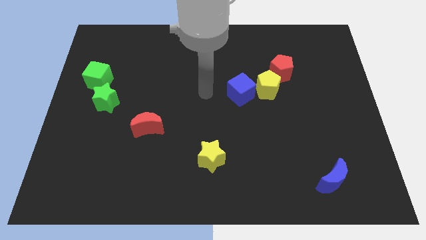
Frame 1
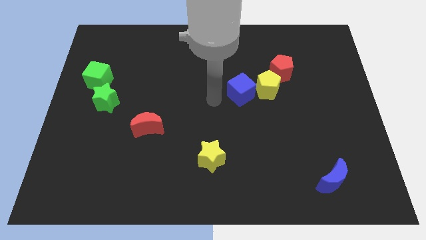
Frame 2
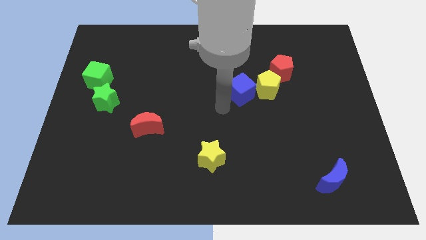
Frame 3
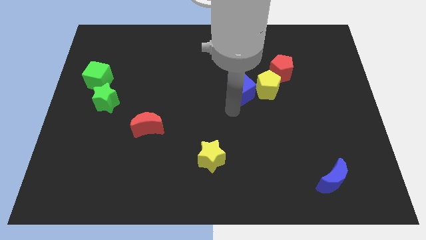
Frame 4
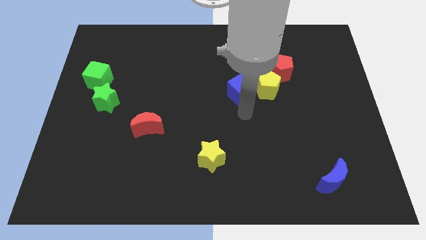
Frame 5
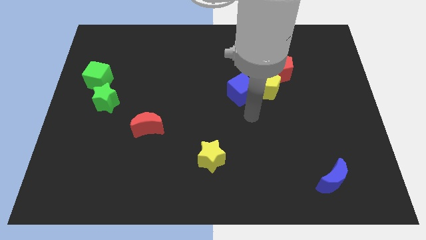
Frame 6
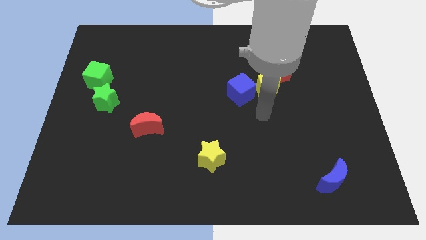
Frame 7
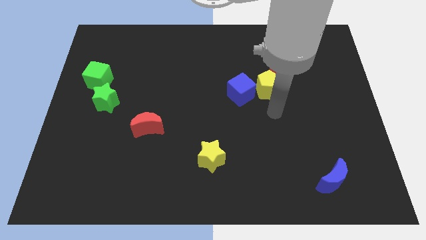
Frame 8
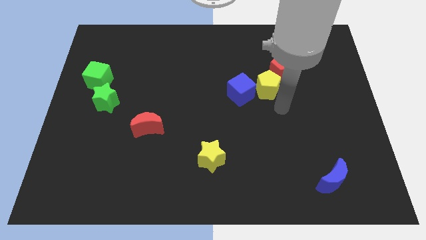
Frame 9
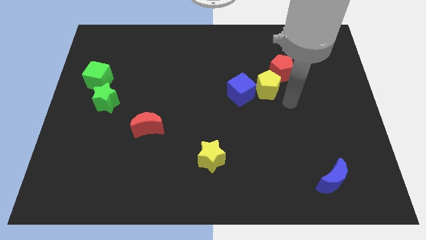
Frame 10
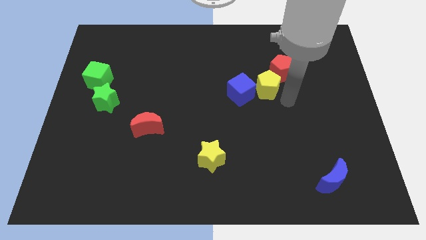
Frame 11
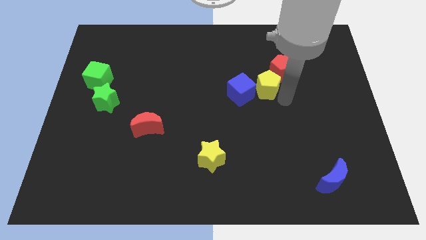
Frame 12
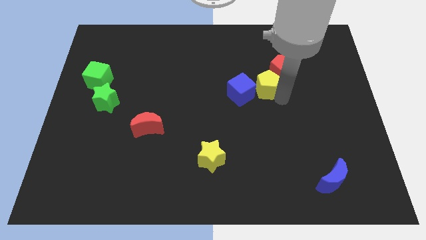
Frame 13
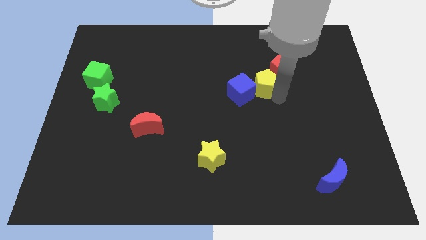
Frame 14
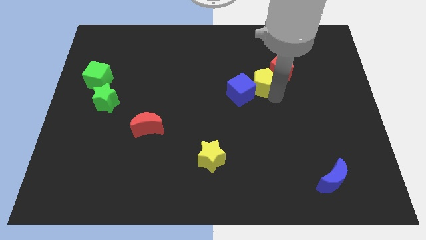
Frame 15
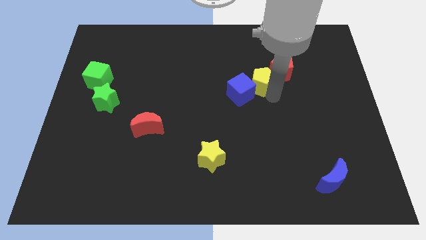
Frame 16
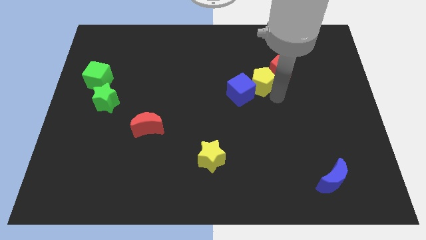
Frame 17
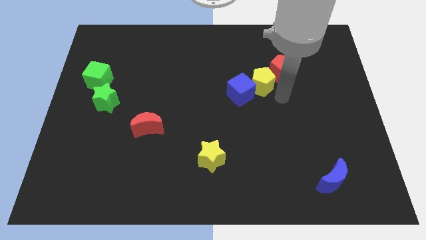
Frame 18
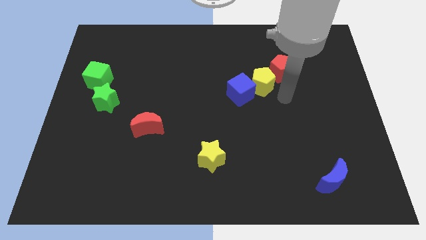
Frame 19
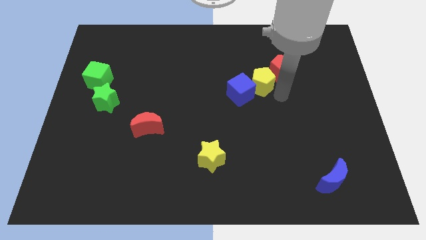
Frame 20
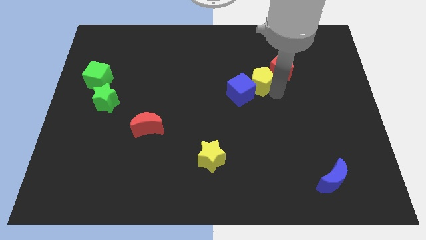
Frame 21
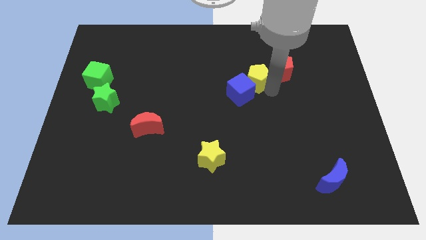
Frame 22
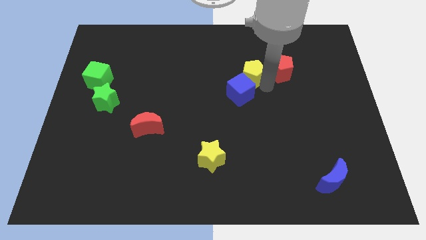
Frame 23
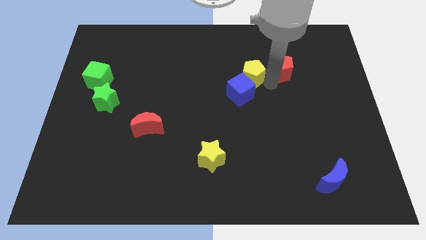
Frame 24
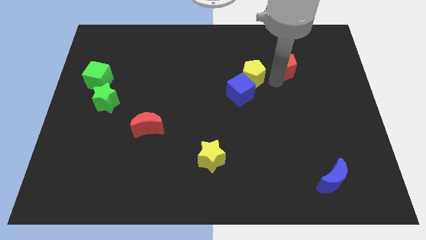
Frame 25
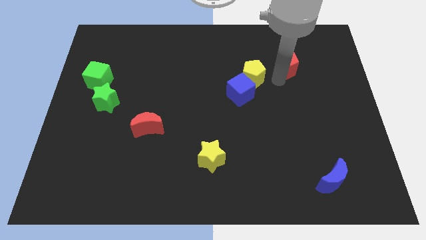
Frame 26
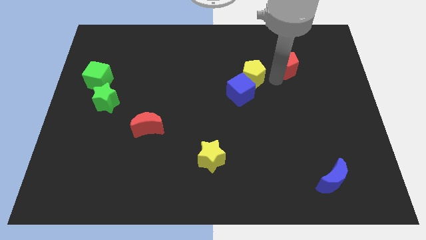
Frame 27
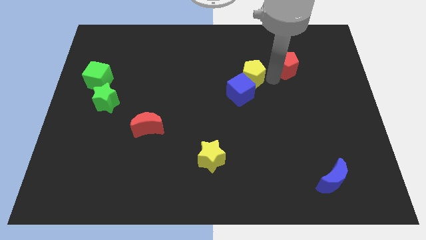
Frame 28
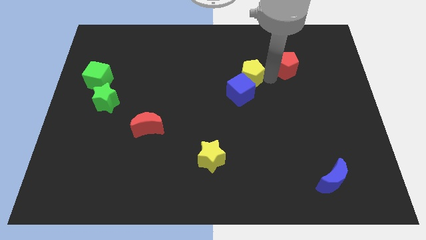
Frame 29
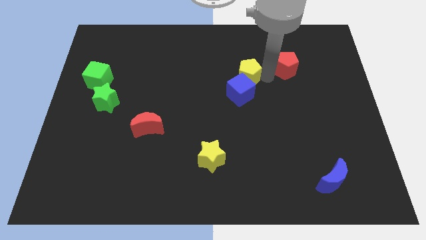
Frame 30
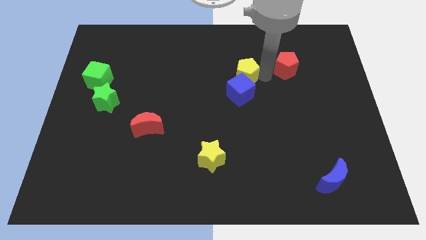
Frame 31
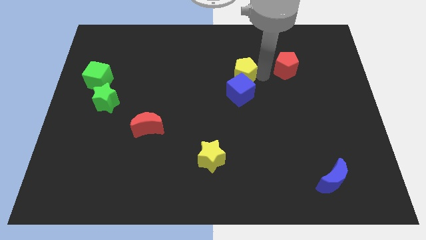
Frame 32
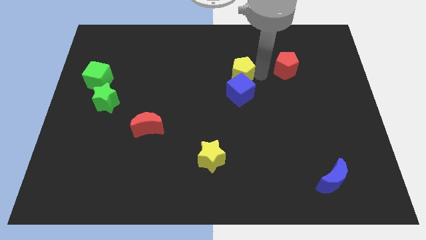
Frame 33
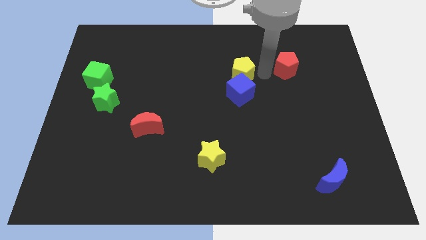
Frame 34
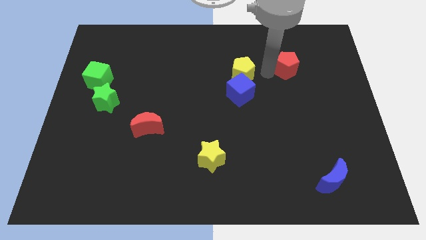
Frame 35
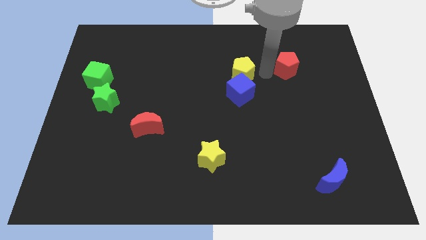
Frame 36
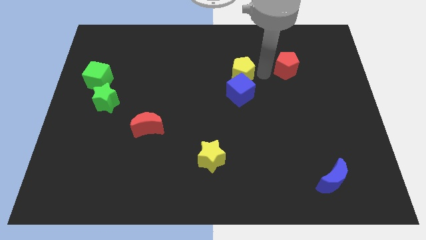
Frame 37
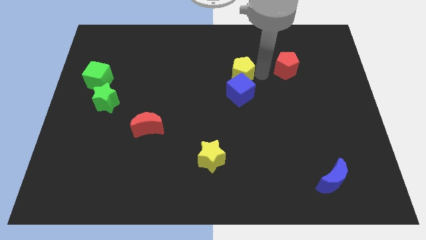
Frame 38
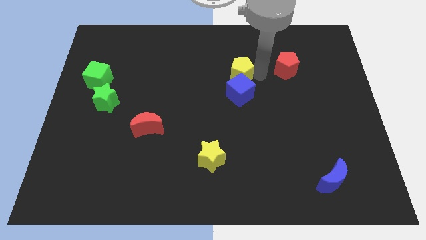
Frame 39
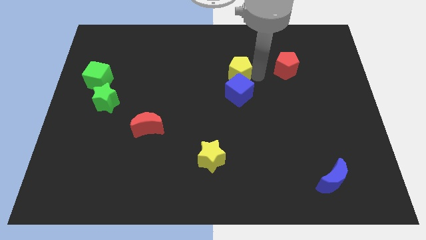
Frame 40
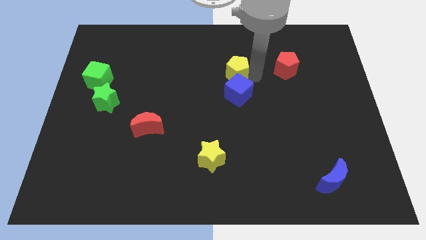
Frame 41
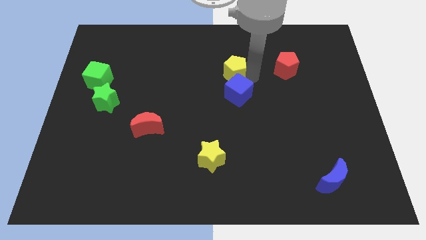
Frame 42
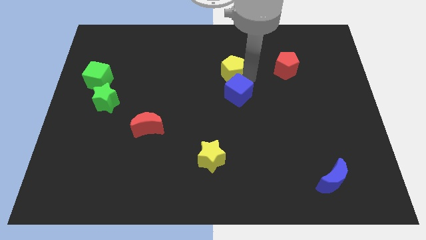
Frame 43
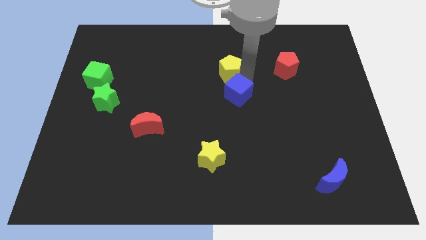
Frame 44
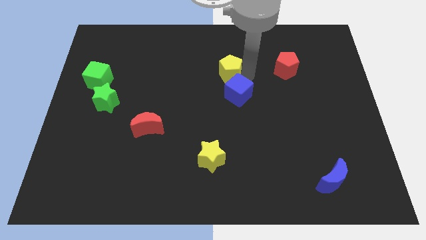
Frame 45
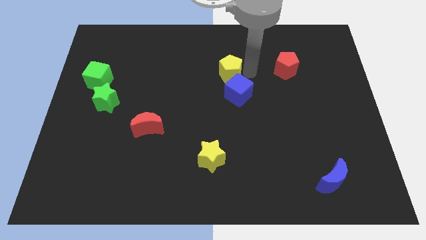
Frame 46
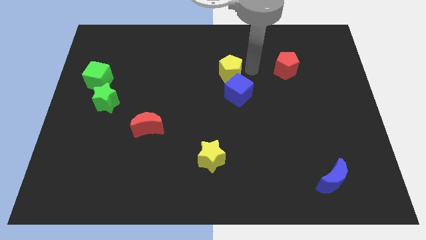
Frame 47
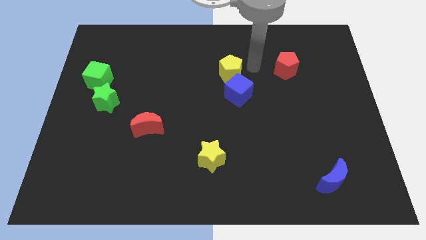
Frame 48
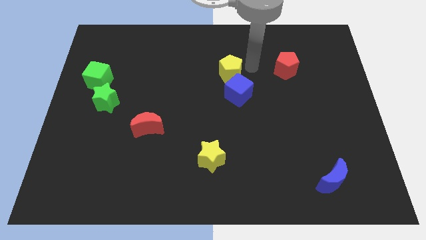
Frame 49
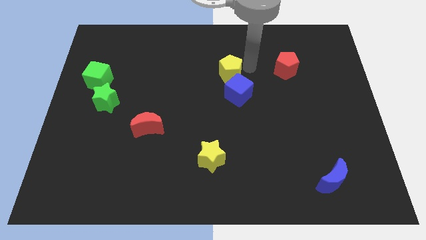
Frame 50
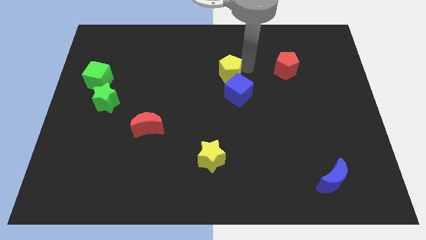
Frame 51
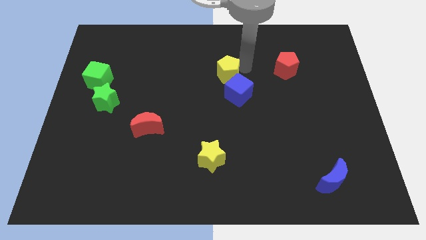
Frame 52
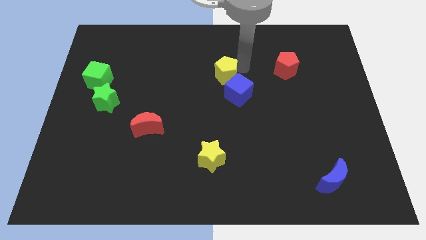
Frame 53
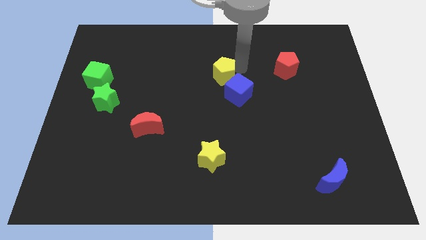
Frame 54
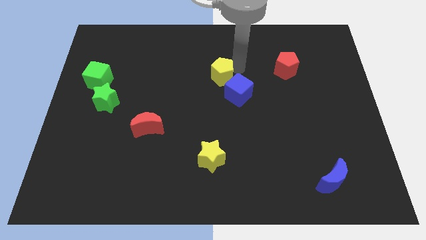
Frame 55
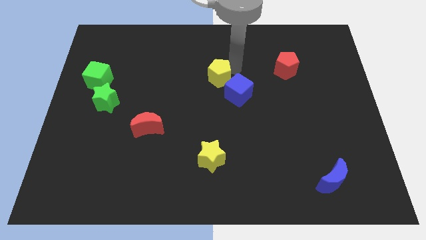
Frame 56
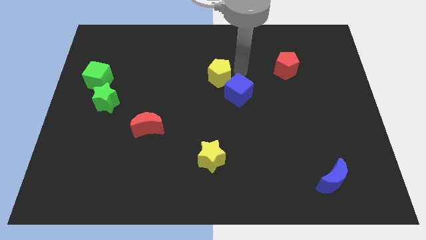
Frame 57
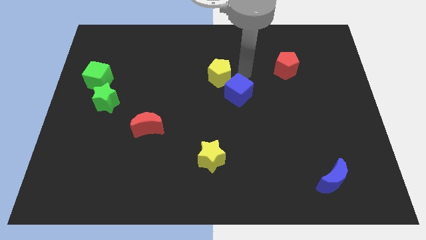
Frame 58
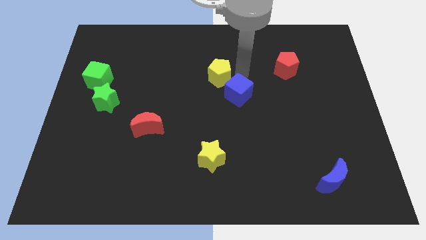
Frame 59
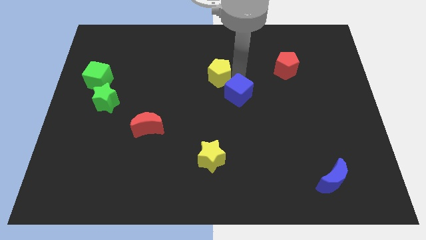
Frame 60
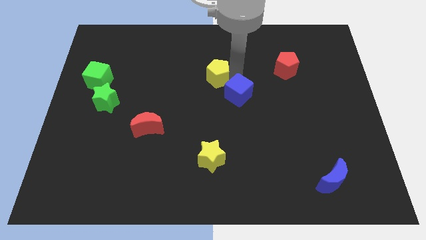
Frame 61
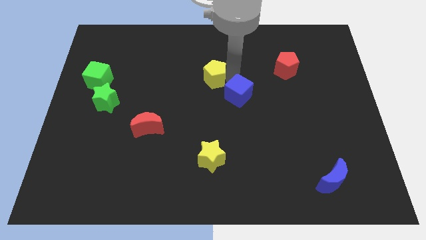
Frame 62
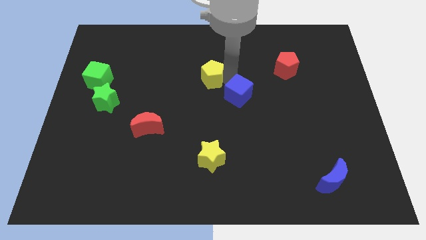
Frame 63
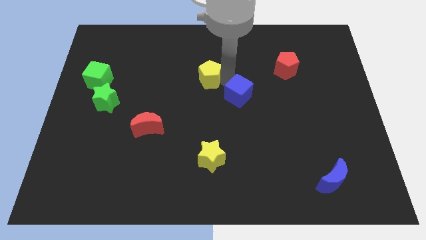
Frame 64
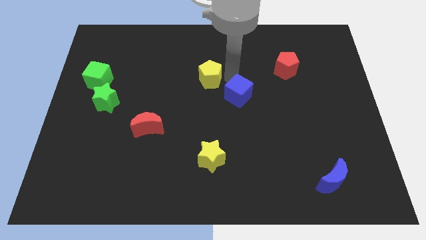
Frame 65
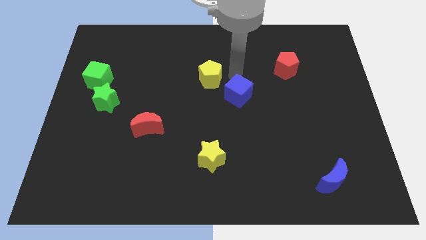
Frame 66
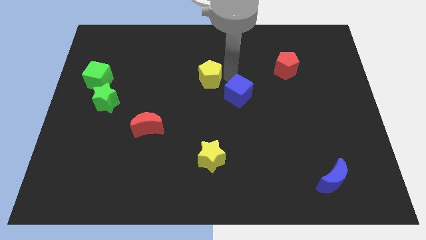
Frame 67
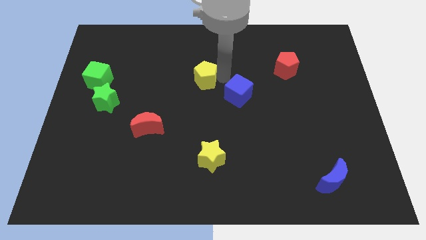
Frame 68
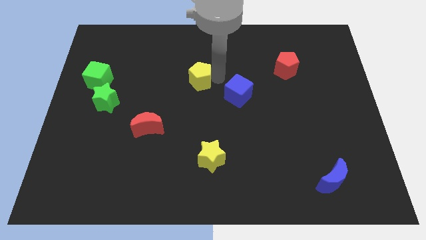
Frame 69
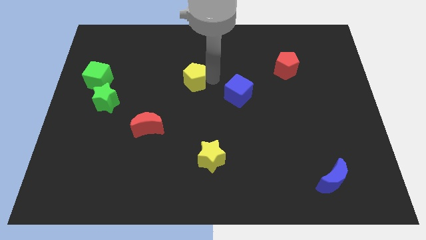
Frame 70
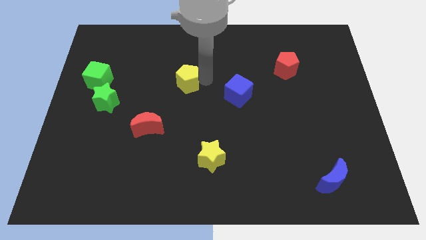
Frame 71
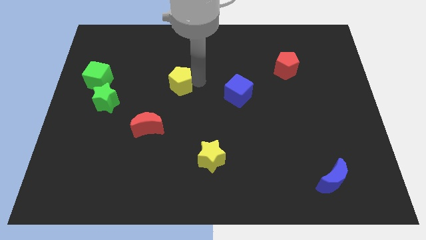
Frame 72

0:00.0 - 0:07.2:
move the yellow pentagon to the left

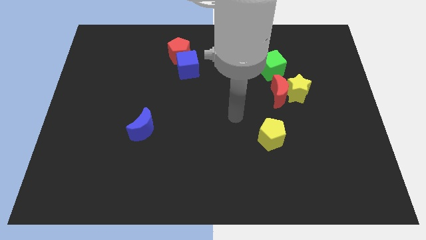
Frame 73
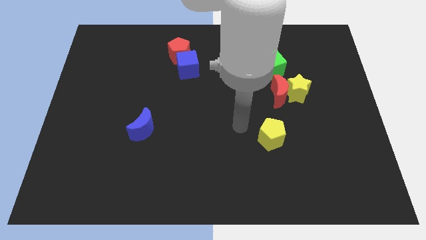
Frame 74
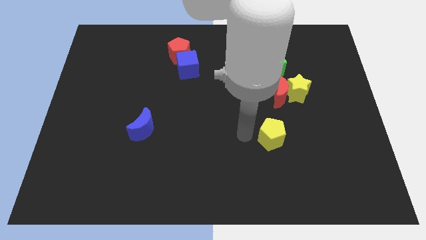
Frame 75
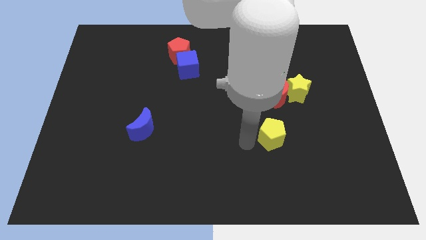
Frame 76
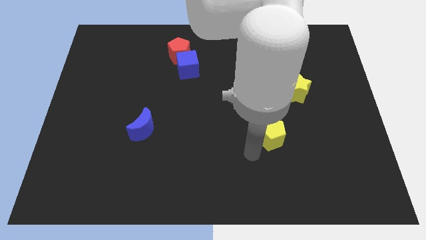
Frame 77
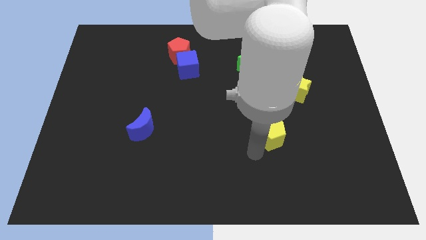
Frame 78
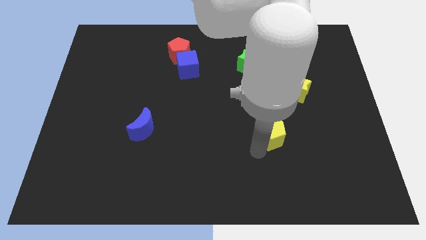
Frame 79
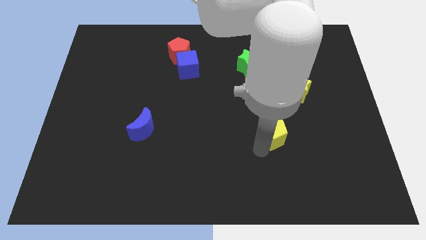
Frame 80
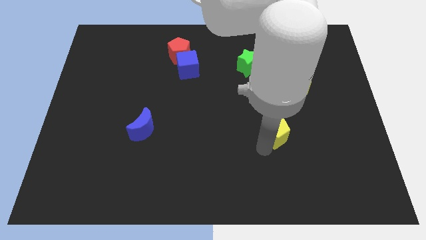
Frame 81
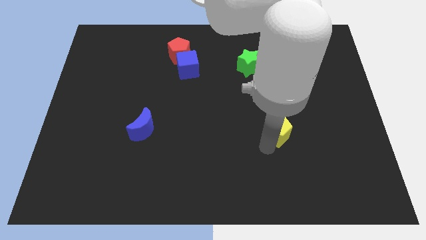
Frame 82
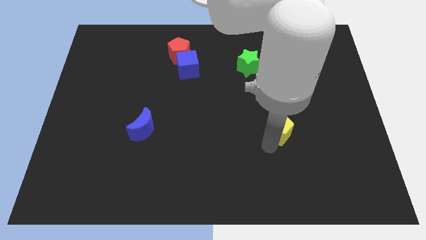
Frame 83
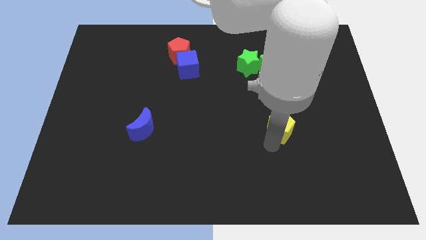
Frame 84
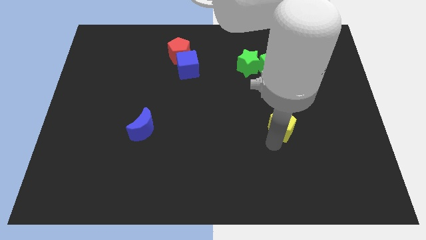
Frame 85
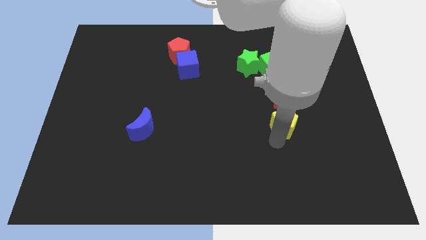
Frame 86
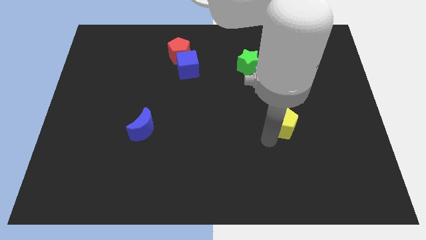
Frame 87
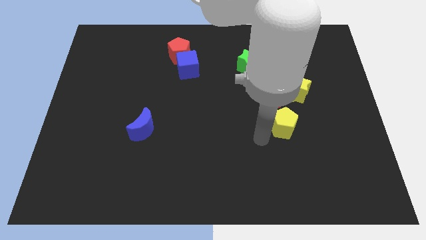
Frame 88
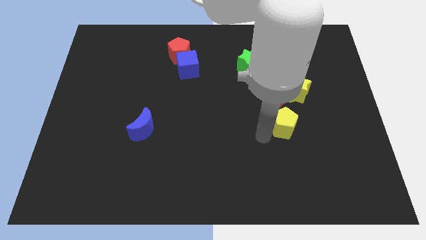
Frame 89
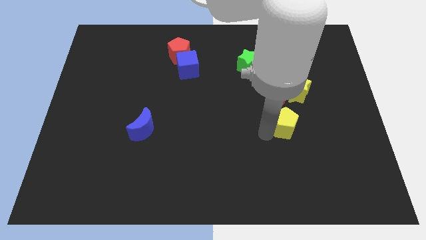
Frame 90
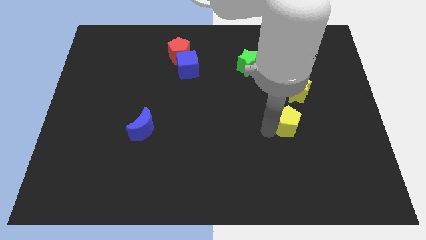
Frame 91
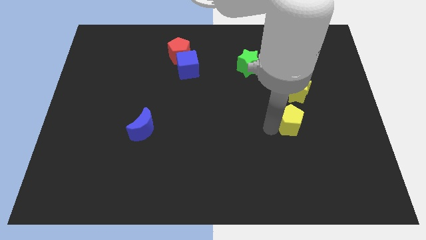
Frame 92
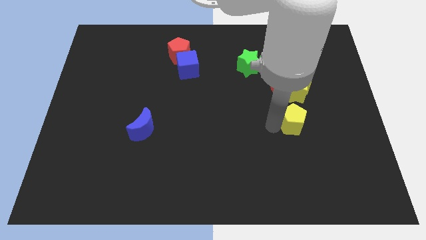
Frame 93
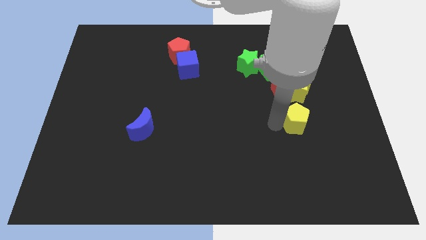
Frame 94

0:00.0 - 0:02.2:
slide the yellow pentagon diagonally upwards and to the right a little
